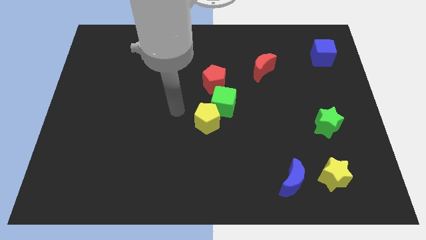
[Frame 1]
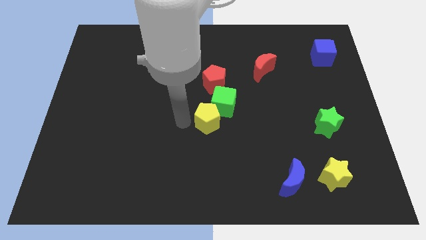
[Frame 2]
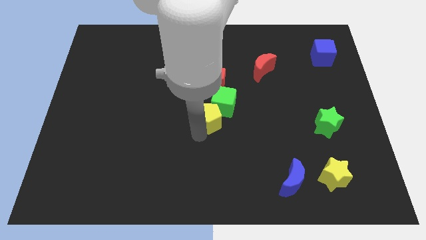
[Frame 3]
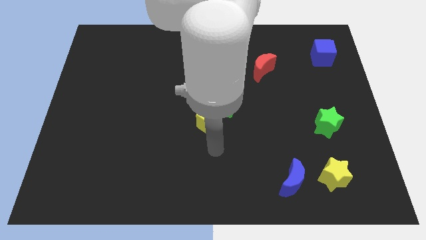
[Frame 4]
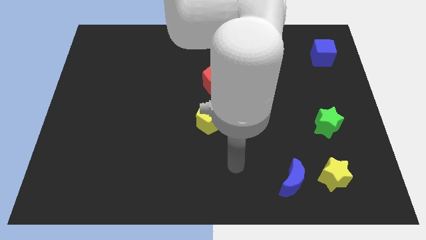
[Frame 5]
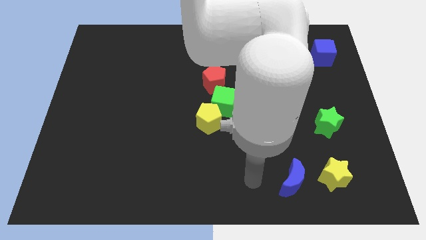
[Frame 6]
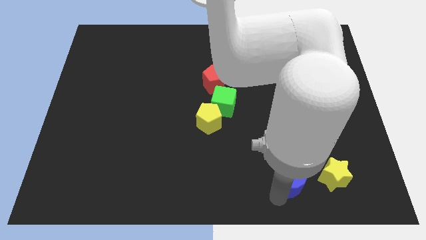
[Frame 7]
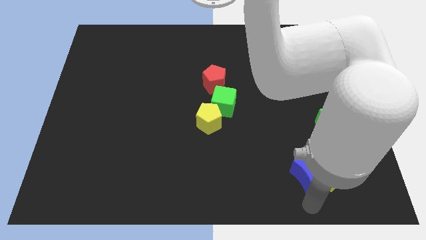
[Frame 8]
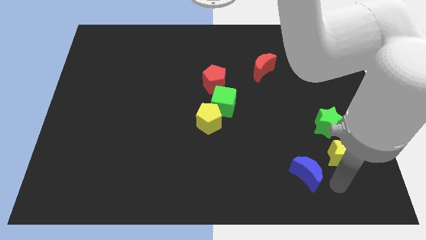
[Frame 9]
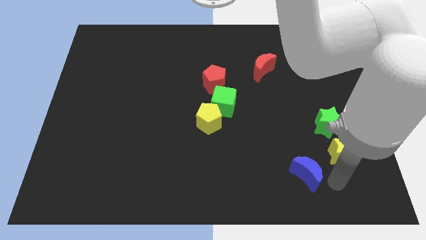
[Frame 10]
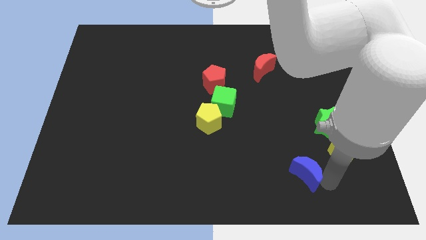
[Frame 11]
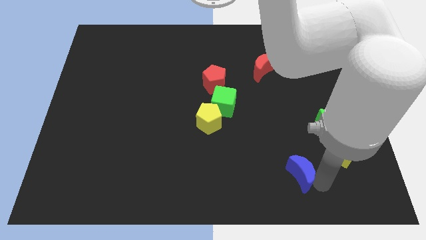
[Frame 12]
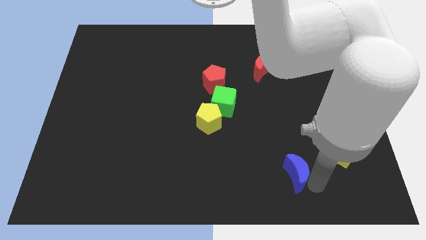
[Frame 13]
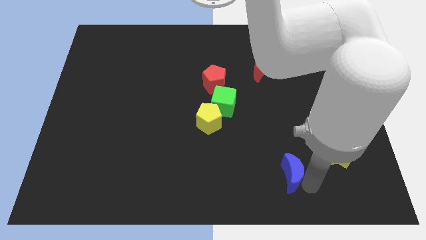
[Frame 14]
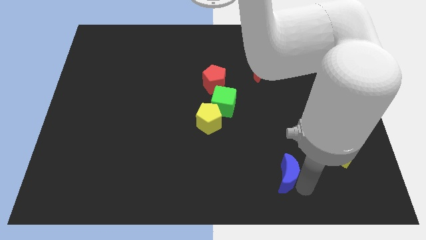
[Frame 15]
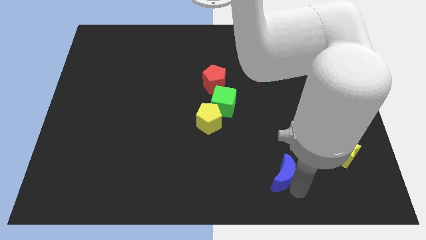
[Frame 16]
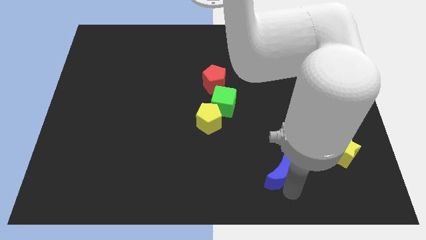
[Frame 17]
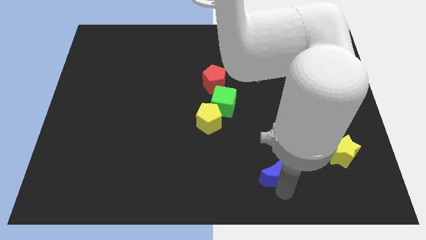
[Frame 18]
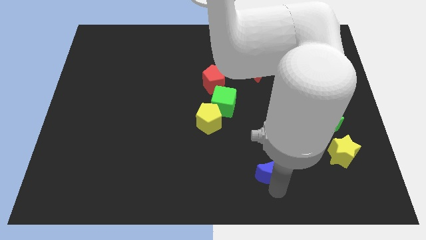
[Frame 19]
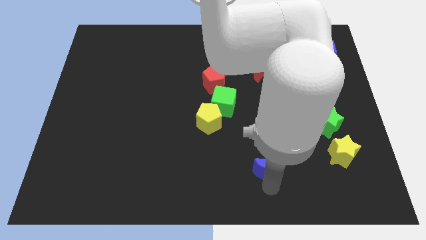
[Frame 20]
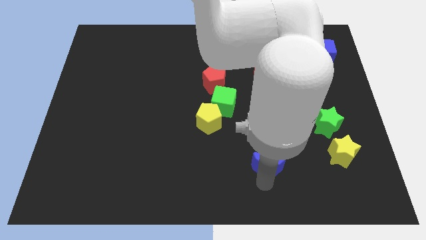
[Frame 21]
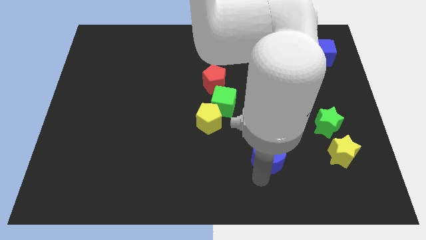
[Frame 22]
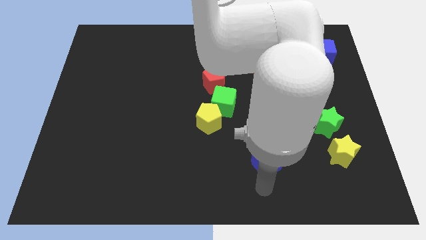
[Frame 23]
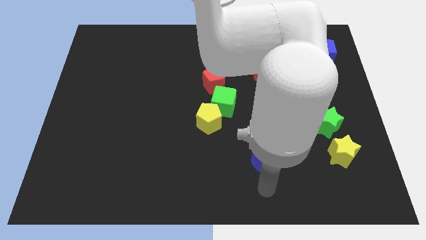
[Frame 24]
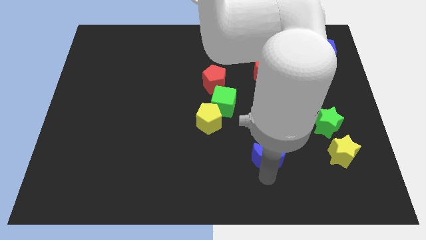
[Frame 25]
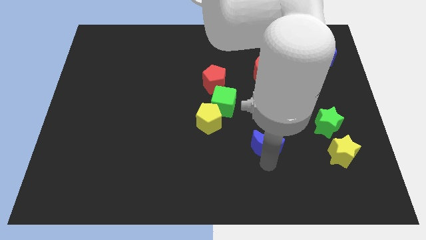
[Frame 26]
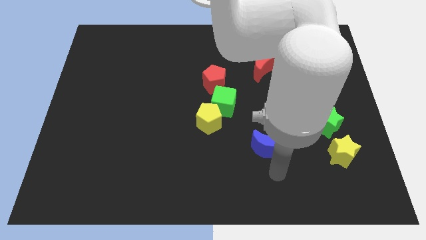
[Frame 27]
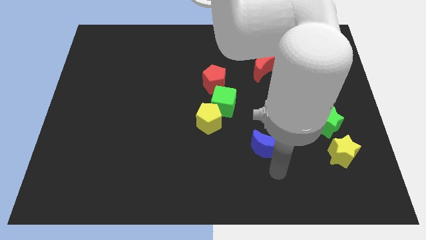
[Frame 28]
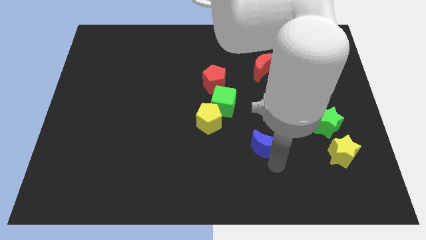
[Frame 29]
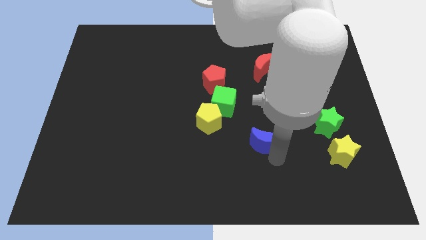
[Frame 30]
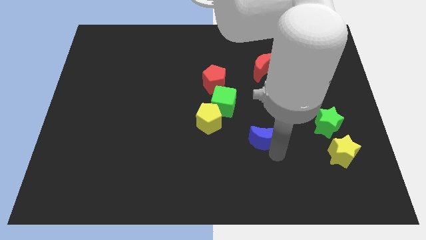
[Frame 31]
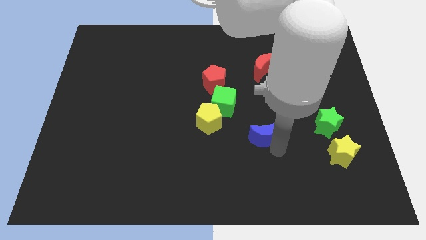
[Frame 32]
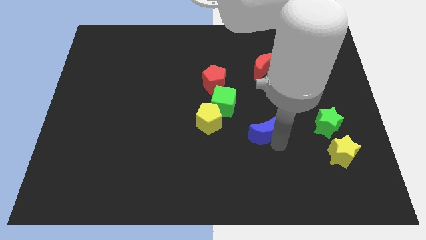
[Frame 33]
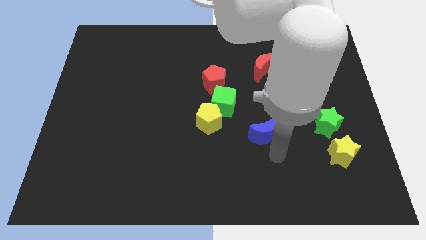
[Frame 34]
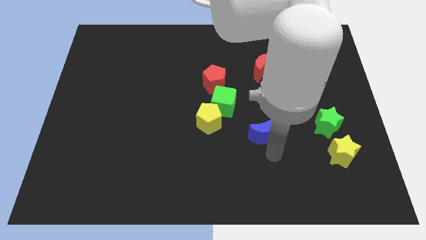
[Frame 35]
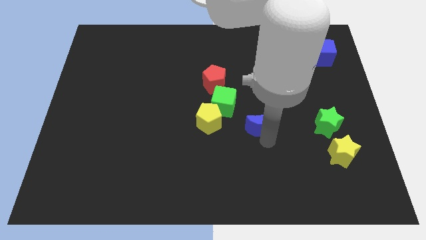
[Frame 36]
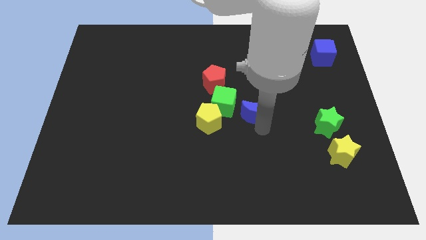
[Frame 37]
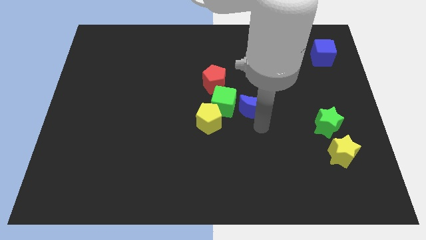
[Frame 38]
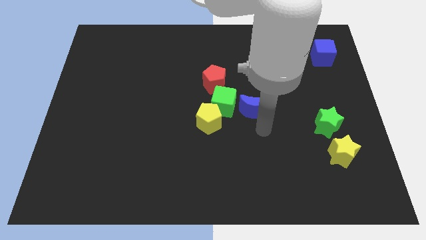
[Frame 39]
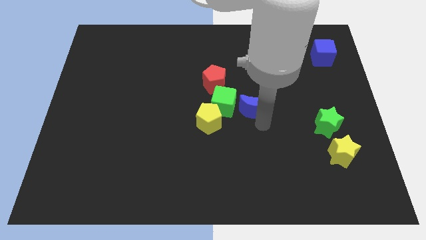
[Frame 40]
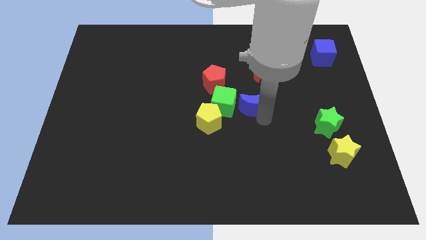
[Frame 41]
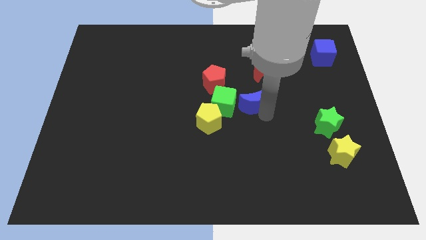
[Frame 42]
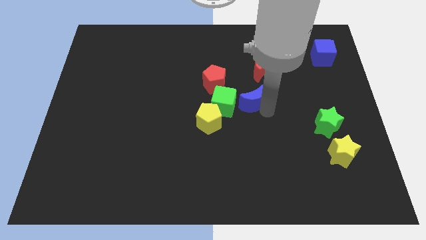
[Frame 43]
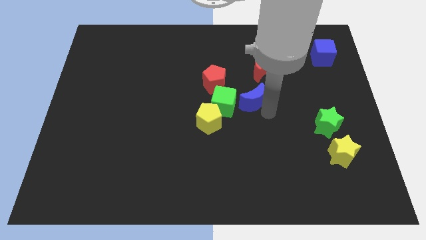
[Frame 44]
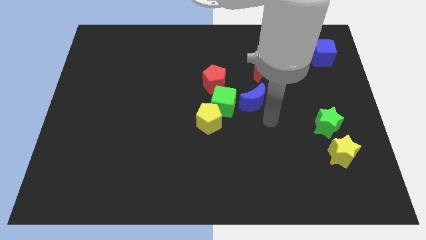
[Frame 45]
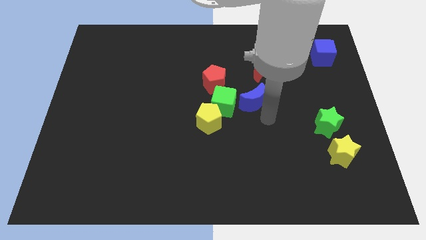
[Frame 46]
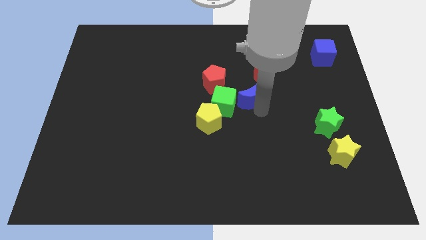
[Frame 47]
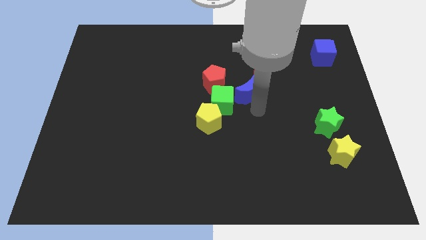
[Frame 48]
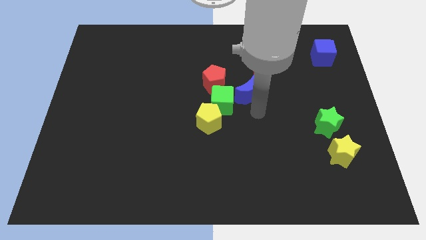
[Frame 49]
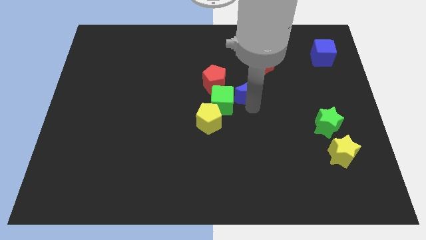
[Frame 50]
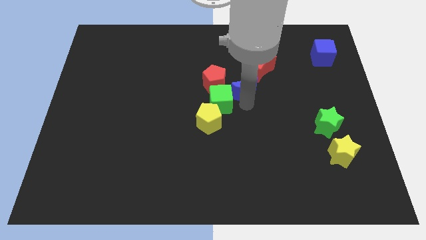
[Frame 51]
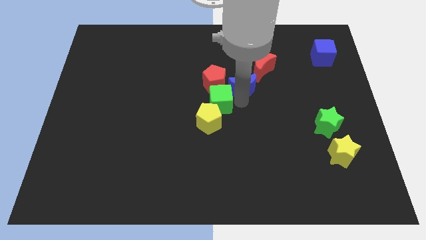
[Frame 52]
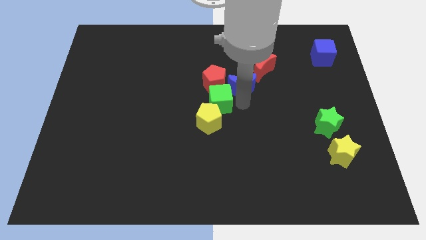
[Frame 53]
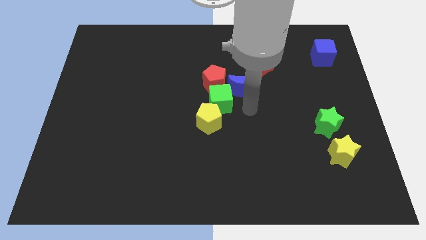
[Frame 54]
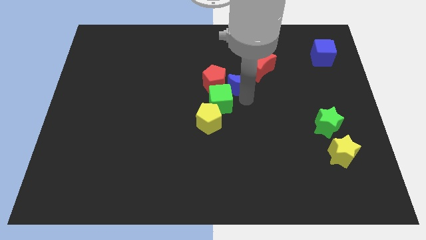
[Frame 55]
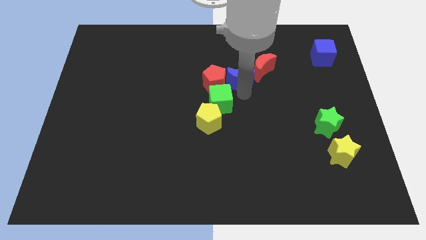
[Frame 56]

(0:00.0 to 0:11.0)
put the blue moon to the top right side of the red pentagon

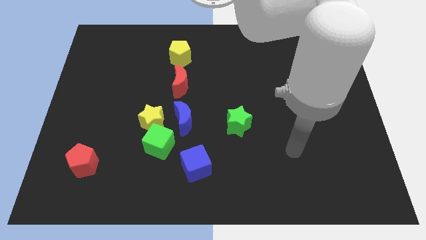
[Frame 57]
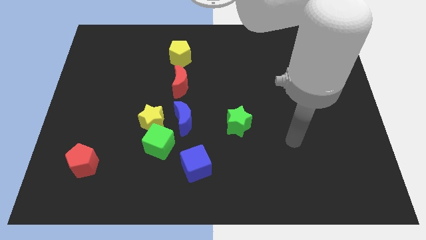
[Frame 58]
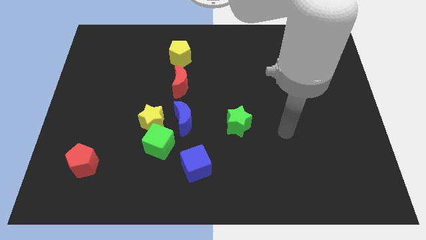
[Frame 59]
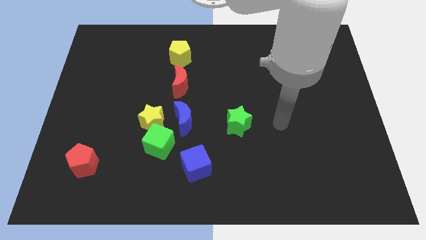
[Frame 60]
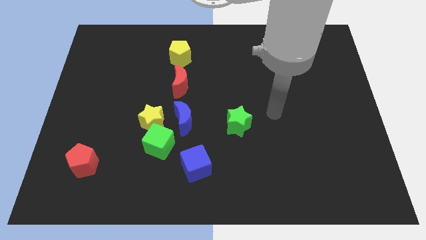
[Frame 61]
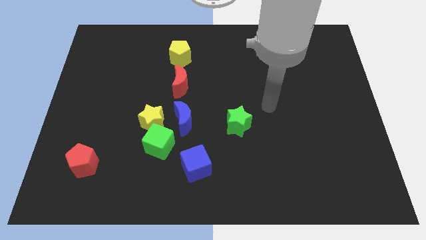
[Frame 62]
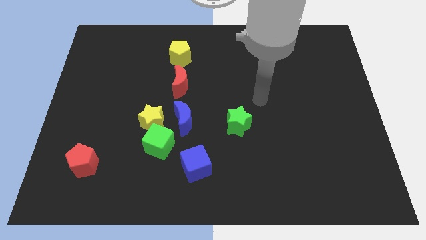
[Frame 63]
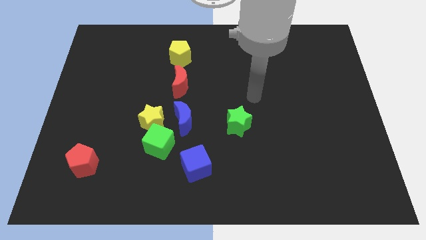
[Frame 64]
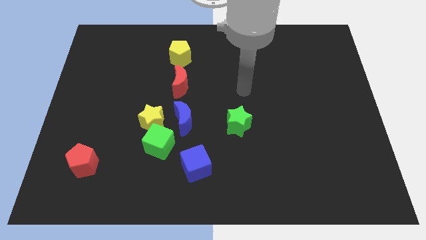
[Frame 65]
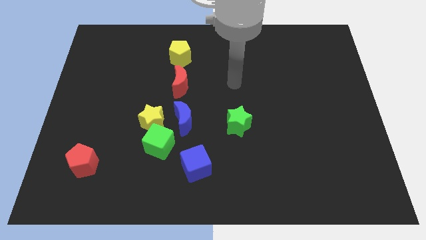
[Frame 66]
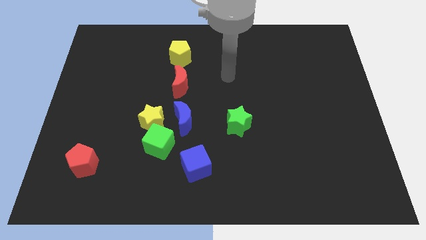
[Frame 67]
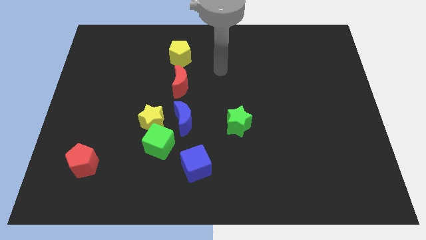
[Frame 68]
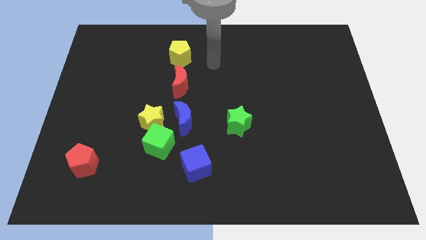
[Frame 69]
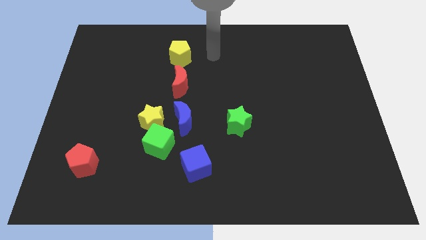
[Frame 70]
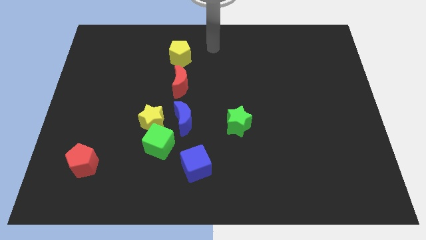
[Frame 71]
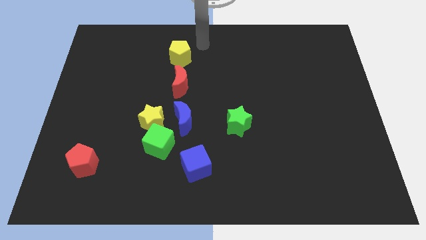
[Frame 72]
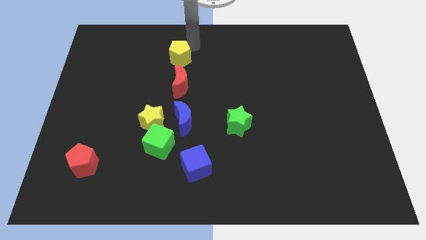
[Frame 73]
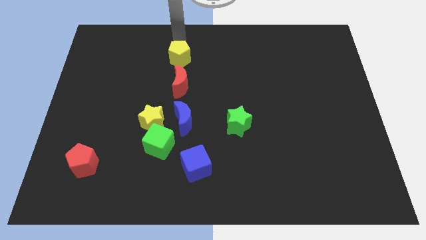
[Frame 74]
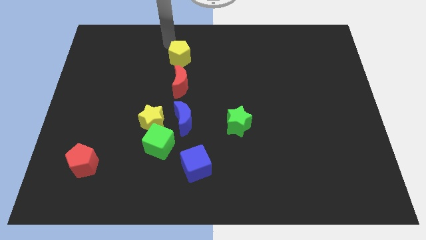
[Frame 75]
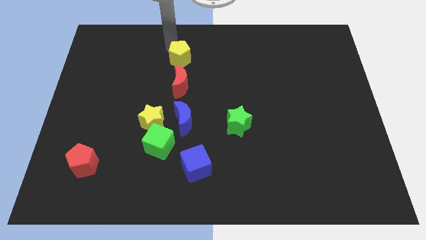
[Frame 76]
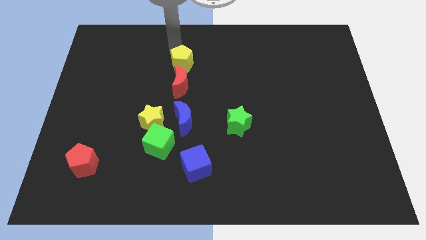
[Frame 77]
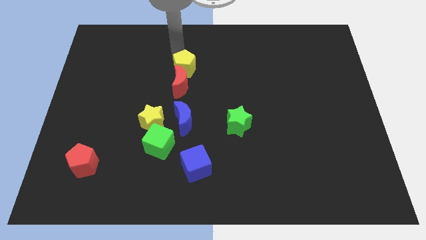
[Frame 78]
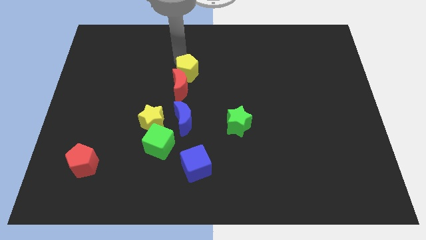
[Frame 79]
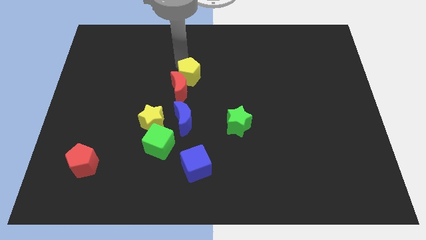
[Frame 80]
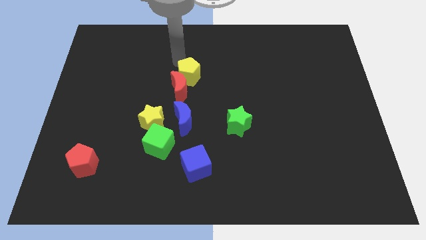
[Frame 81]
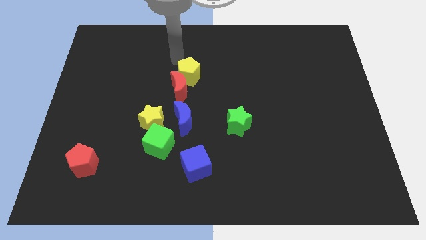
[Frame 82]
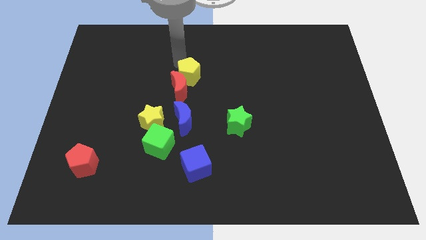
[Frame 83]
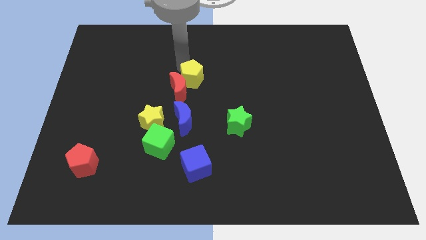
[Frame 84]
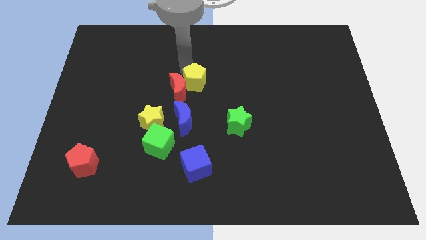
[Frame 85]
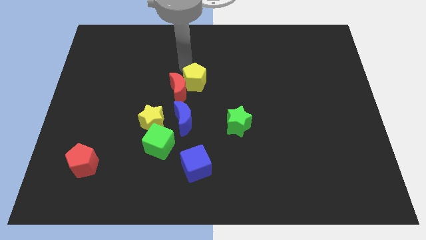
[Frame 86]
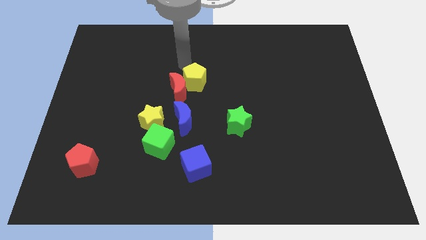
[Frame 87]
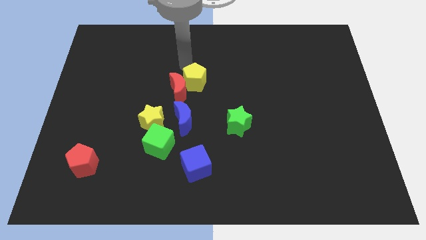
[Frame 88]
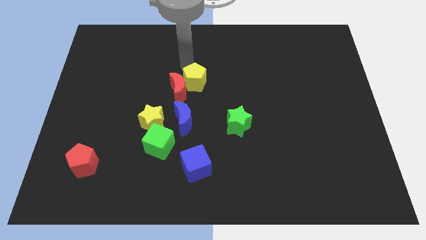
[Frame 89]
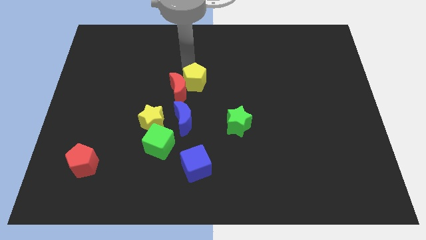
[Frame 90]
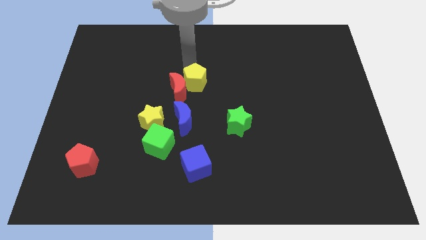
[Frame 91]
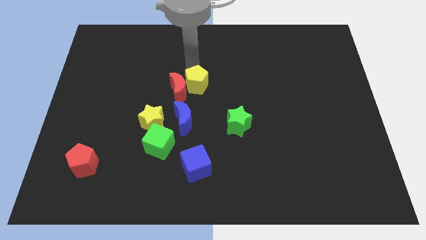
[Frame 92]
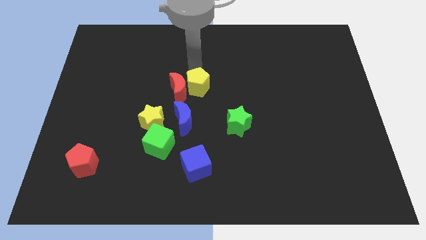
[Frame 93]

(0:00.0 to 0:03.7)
move the yellow pentagon to the bottom right side of the red moon
